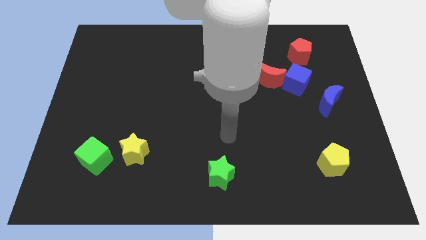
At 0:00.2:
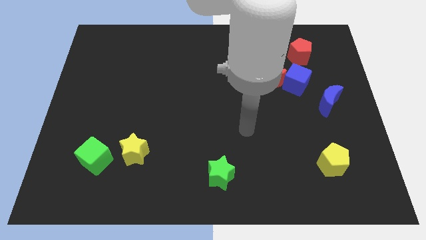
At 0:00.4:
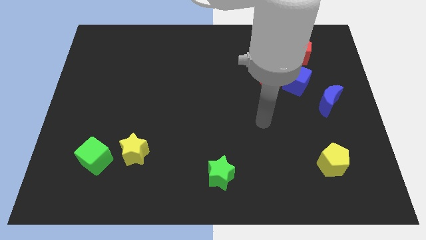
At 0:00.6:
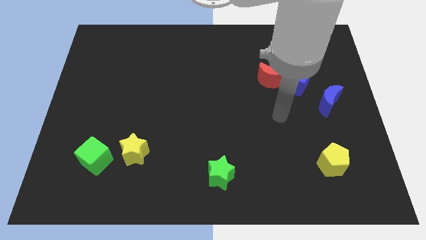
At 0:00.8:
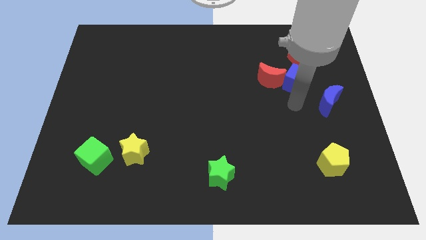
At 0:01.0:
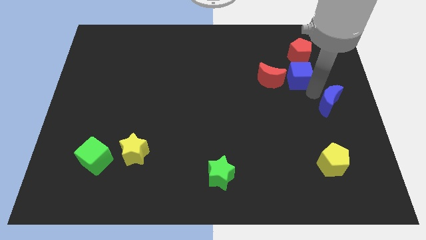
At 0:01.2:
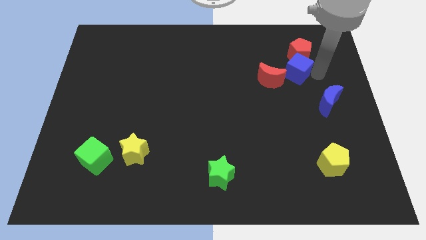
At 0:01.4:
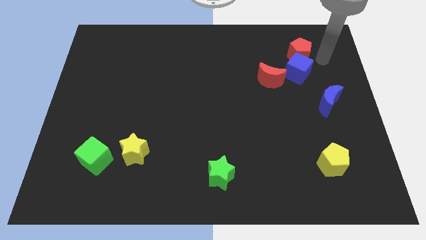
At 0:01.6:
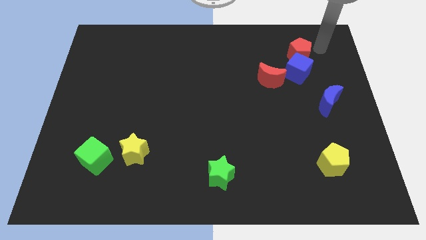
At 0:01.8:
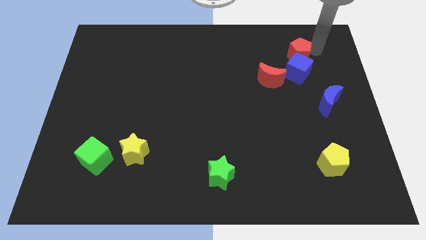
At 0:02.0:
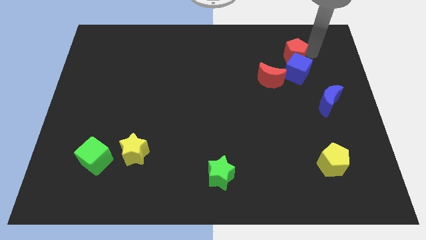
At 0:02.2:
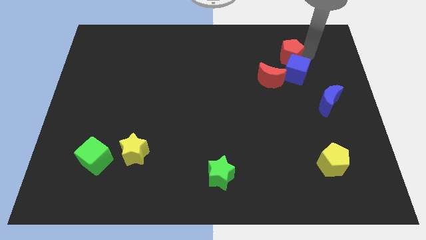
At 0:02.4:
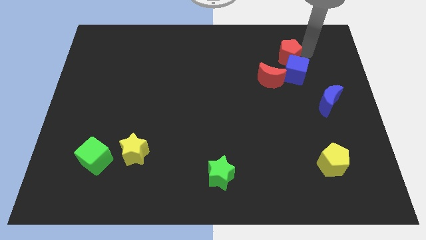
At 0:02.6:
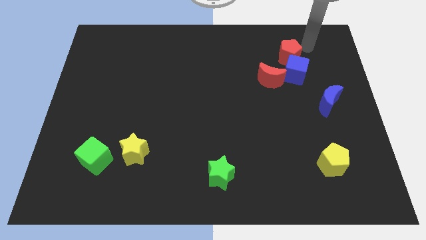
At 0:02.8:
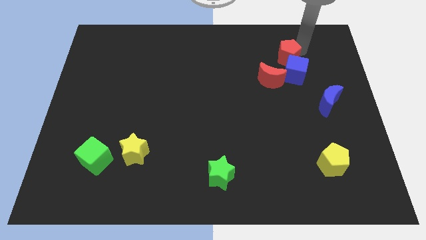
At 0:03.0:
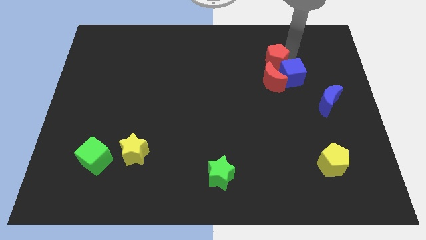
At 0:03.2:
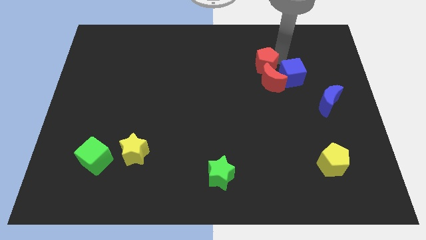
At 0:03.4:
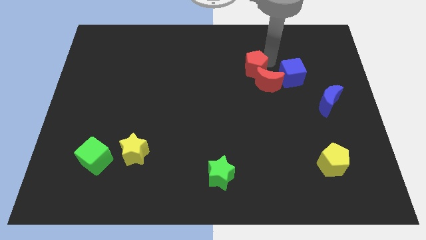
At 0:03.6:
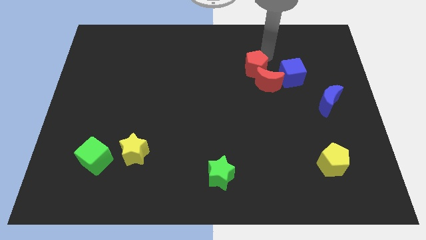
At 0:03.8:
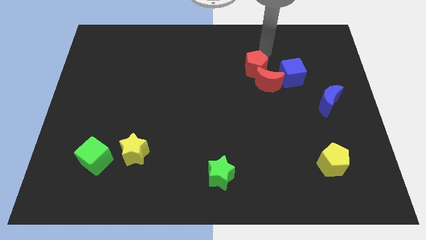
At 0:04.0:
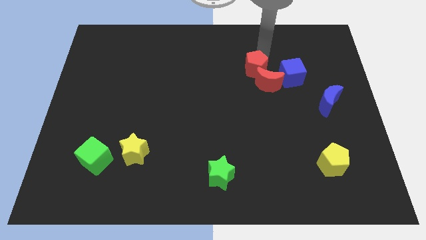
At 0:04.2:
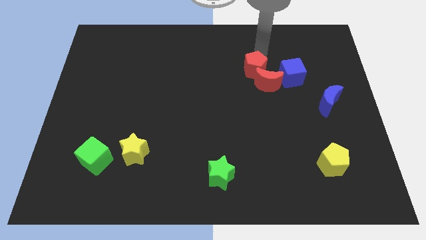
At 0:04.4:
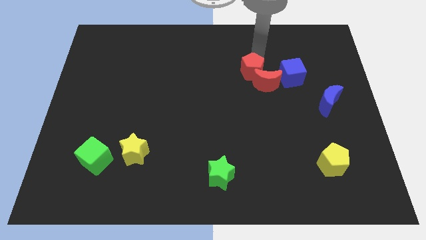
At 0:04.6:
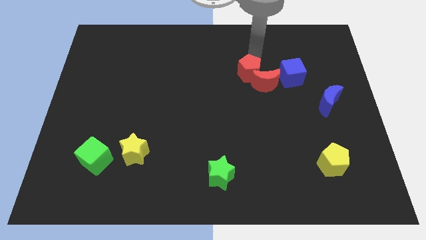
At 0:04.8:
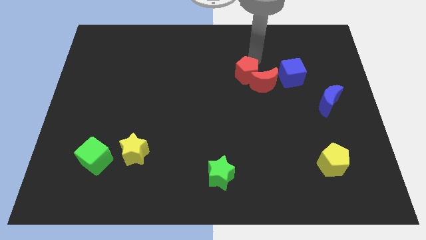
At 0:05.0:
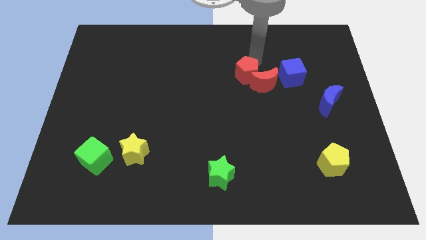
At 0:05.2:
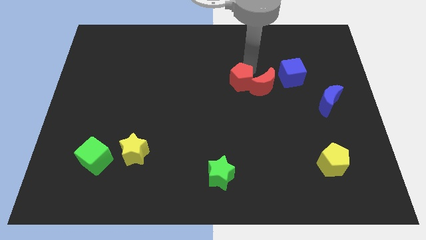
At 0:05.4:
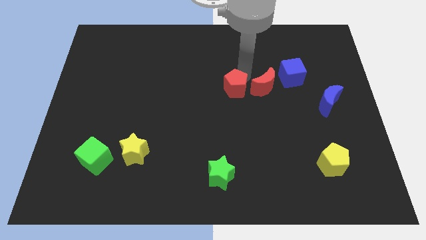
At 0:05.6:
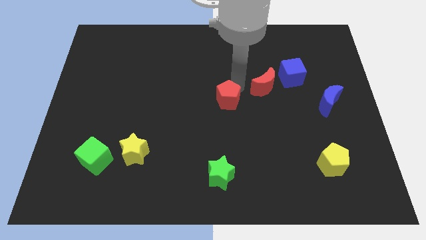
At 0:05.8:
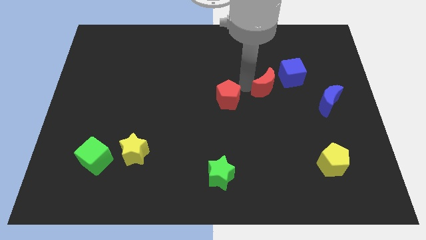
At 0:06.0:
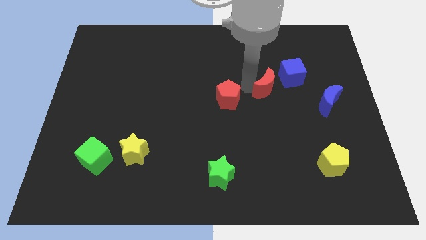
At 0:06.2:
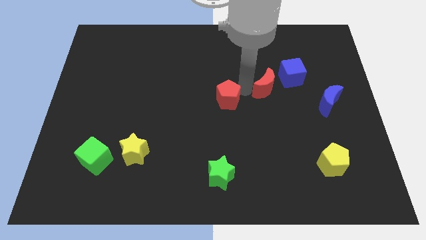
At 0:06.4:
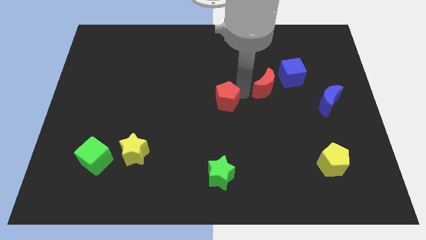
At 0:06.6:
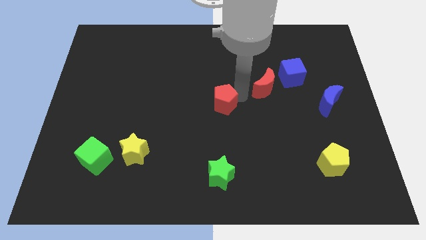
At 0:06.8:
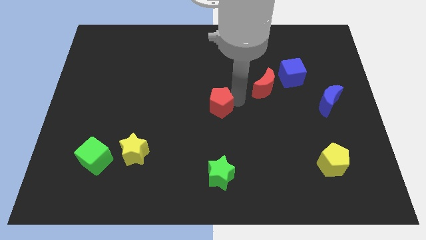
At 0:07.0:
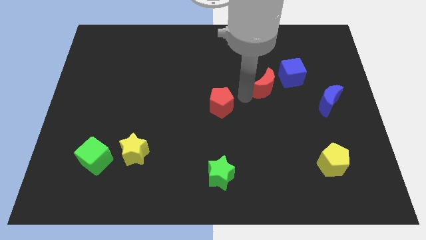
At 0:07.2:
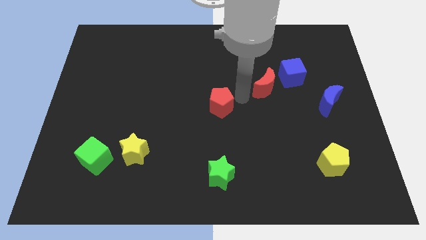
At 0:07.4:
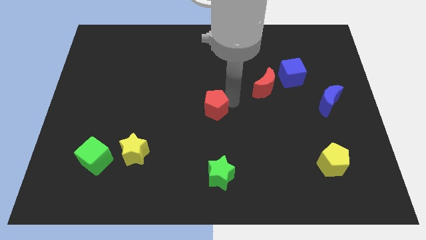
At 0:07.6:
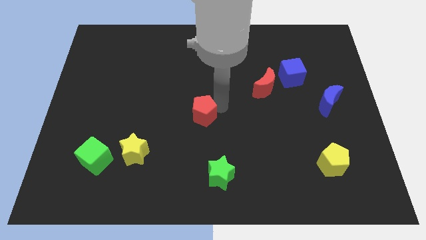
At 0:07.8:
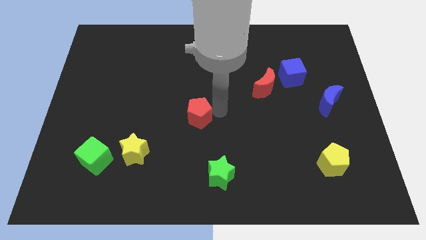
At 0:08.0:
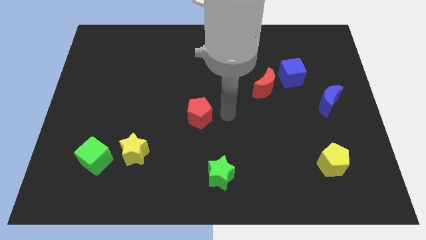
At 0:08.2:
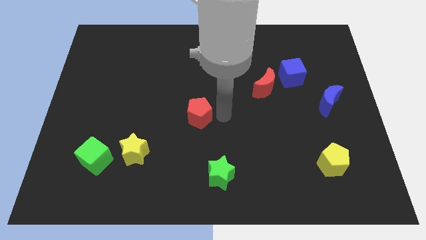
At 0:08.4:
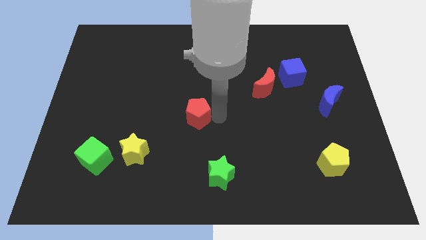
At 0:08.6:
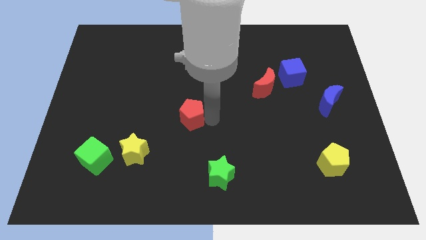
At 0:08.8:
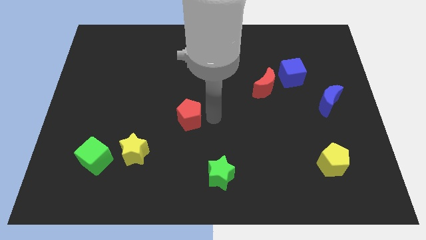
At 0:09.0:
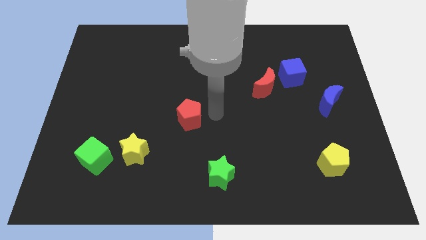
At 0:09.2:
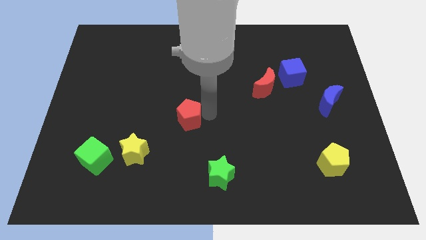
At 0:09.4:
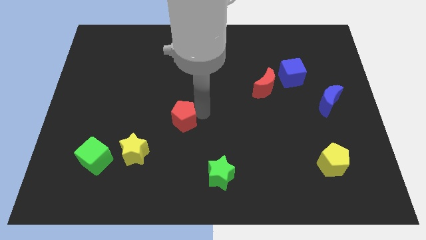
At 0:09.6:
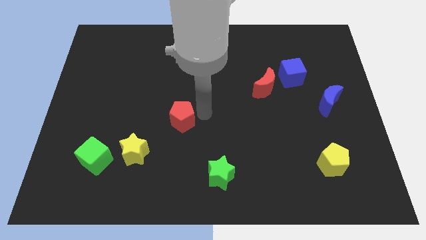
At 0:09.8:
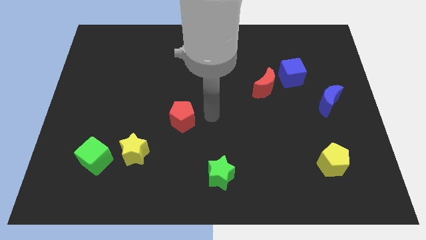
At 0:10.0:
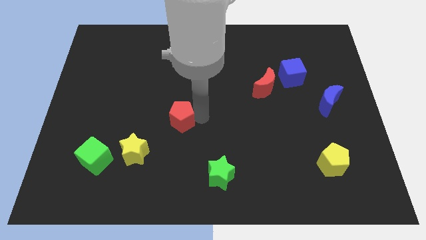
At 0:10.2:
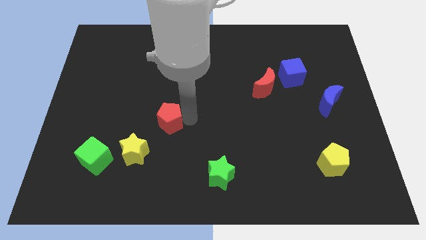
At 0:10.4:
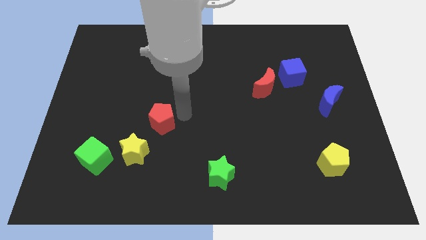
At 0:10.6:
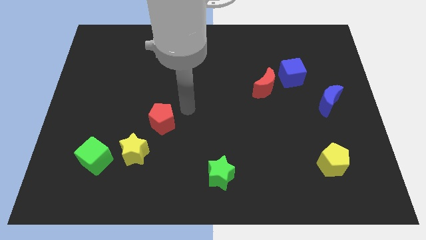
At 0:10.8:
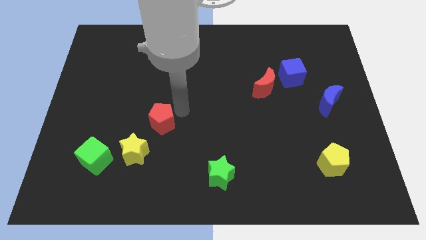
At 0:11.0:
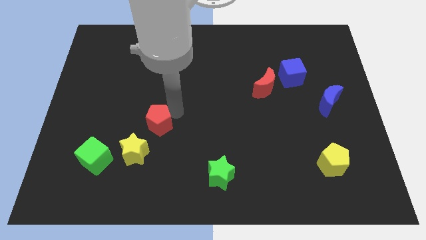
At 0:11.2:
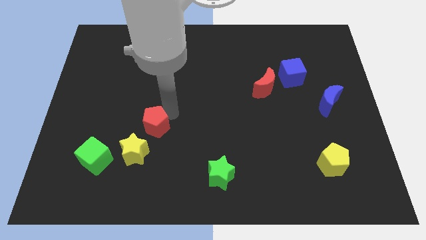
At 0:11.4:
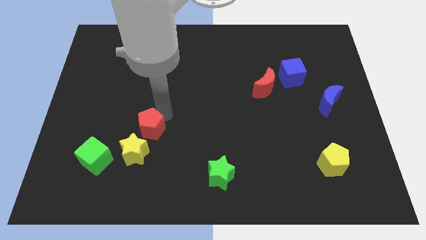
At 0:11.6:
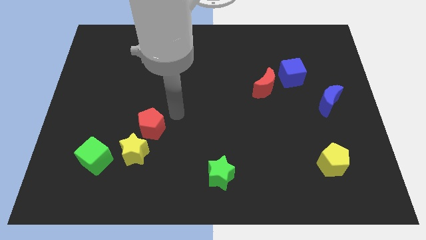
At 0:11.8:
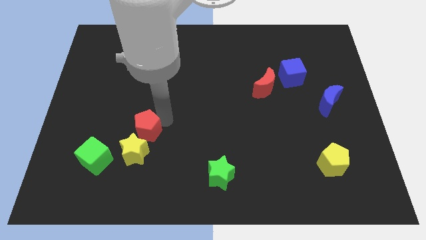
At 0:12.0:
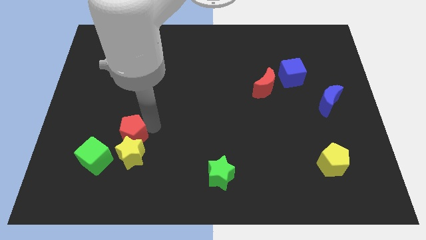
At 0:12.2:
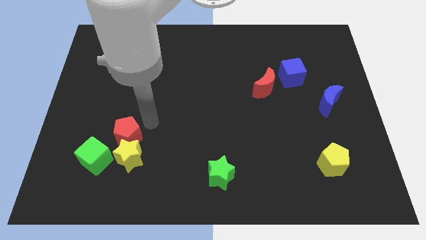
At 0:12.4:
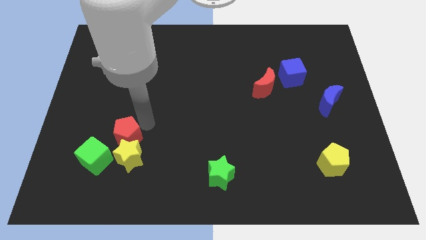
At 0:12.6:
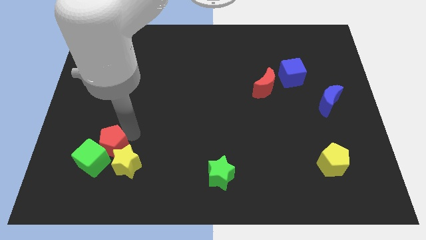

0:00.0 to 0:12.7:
push the red pentagon towards the green cube

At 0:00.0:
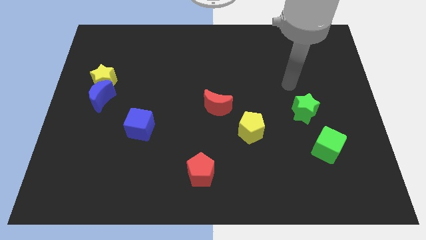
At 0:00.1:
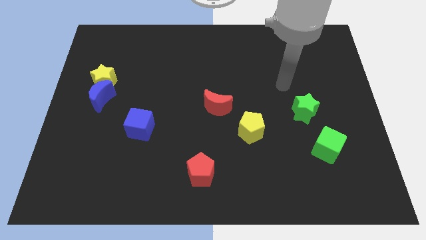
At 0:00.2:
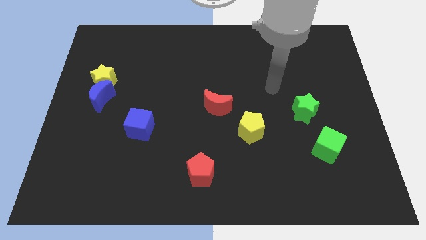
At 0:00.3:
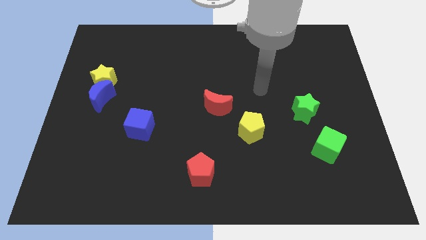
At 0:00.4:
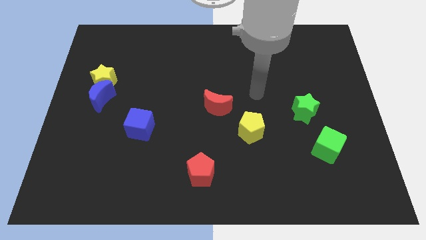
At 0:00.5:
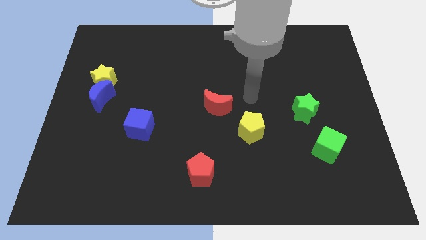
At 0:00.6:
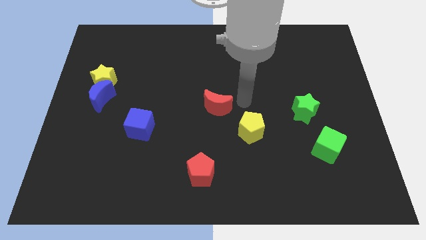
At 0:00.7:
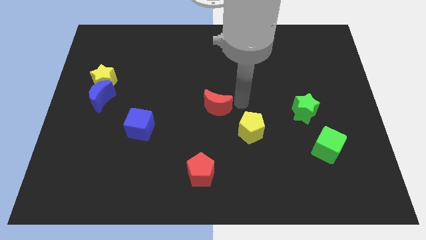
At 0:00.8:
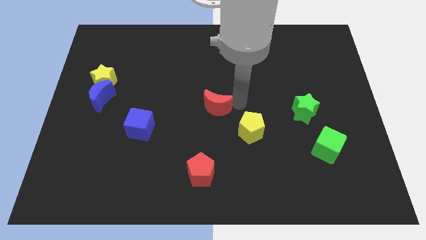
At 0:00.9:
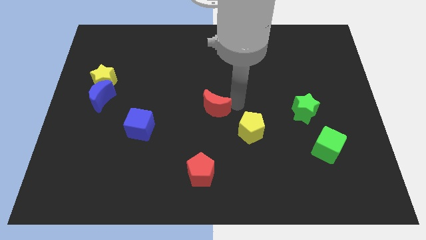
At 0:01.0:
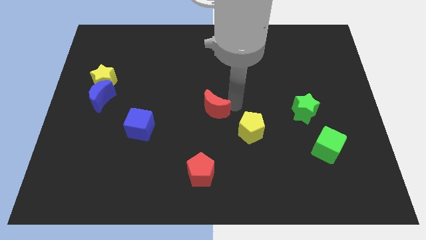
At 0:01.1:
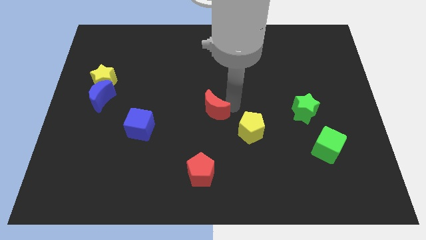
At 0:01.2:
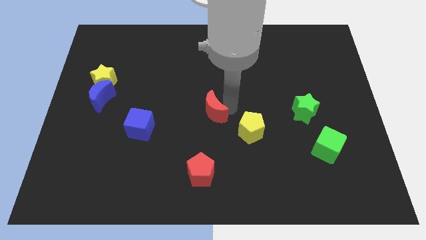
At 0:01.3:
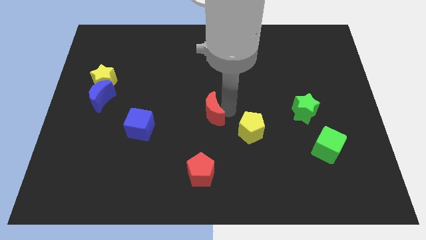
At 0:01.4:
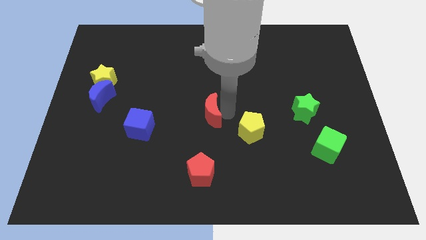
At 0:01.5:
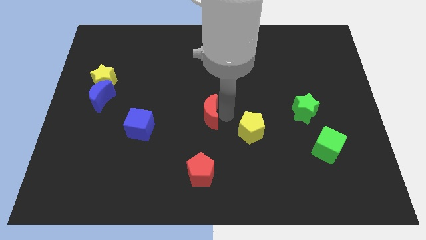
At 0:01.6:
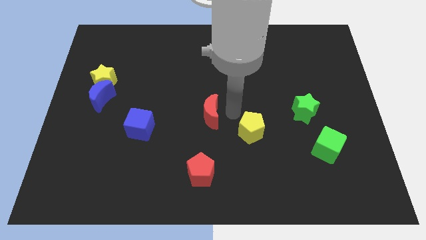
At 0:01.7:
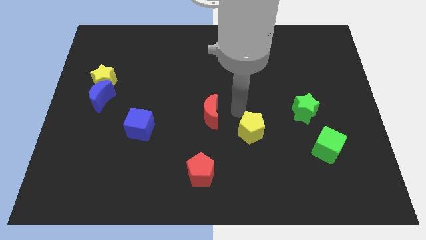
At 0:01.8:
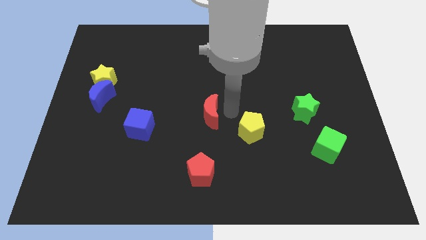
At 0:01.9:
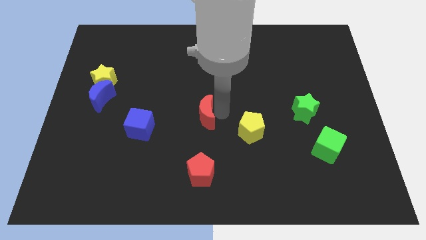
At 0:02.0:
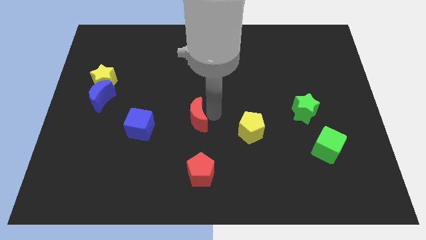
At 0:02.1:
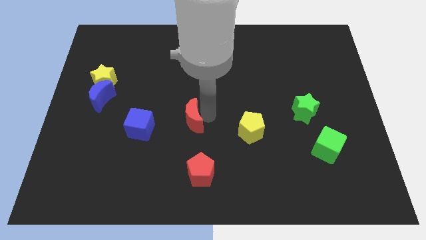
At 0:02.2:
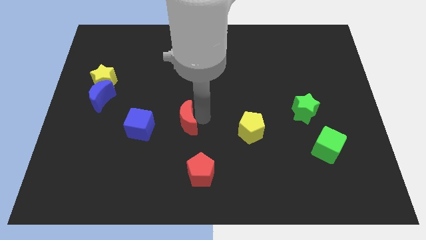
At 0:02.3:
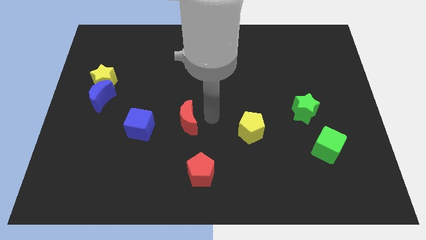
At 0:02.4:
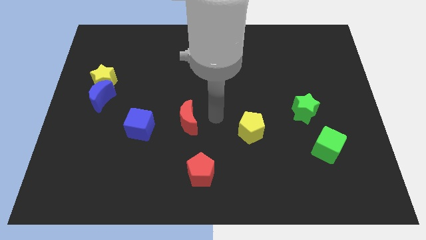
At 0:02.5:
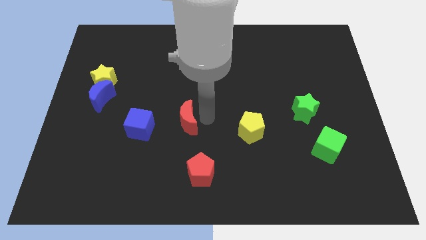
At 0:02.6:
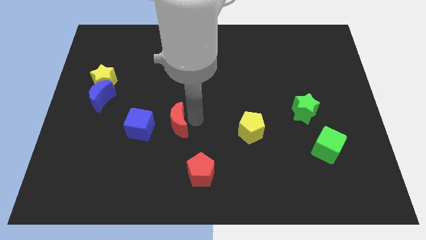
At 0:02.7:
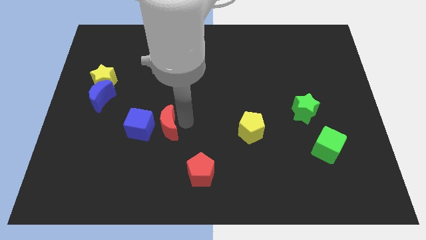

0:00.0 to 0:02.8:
put the red moon to the blue cube
